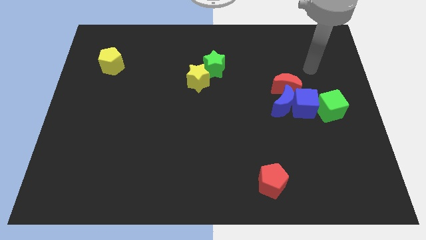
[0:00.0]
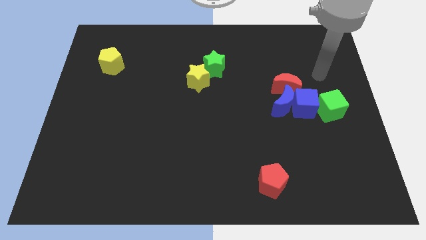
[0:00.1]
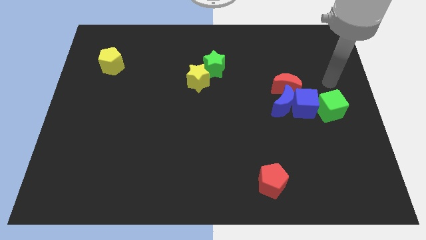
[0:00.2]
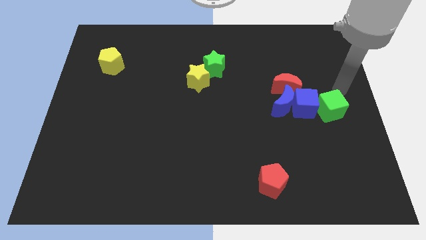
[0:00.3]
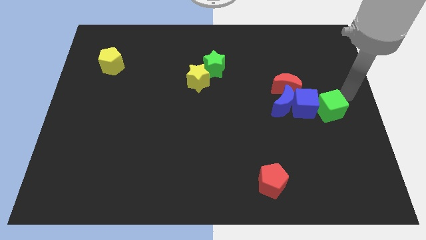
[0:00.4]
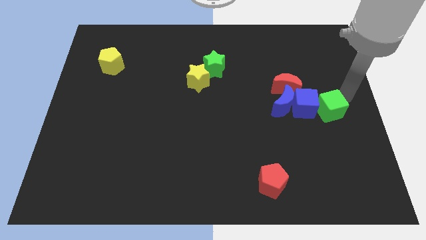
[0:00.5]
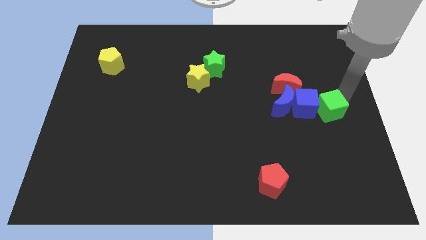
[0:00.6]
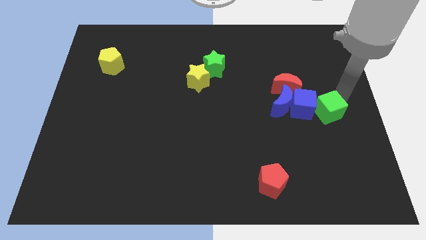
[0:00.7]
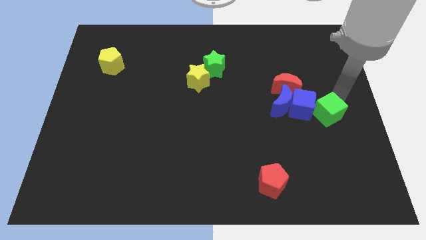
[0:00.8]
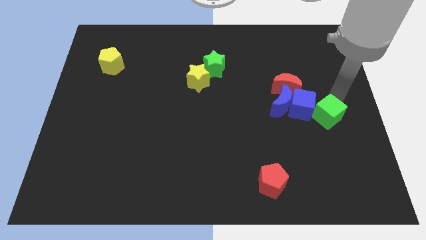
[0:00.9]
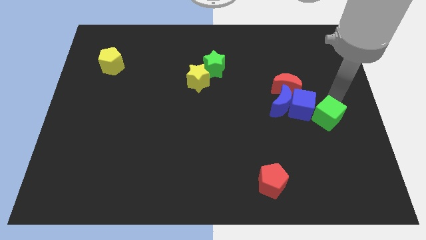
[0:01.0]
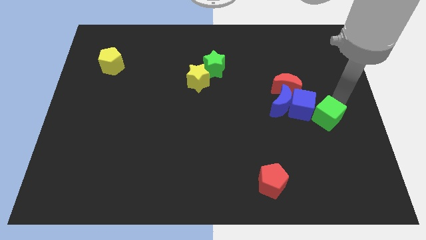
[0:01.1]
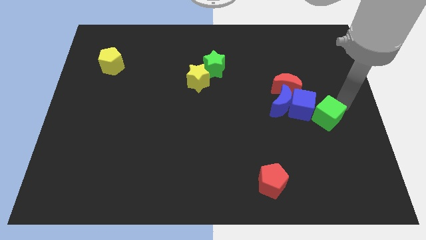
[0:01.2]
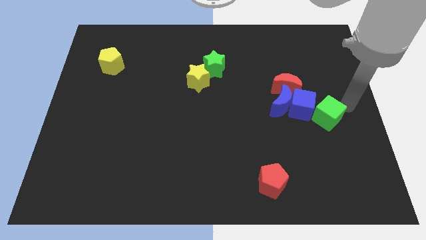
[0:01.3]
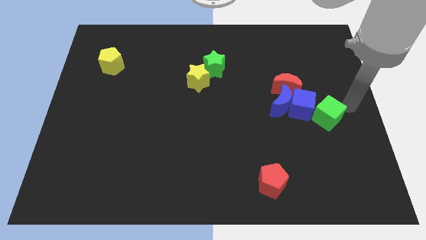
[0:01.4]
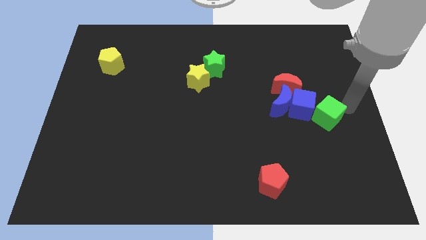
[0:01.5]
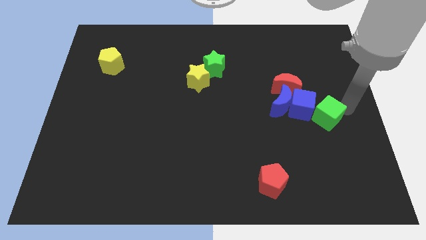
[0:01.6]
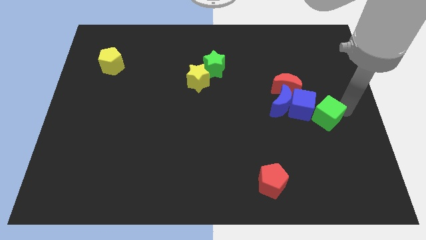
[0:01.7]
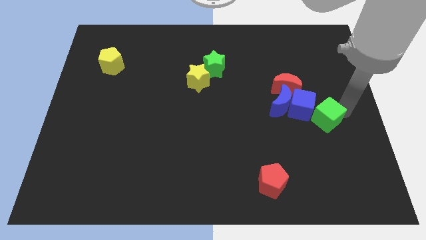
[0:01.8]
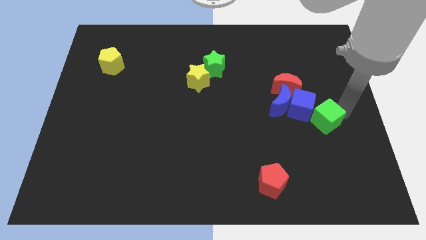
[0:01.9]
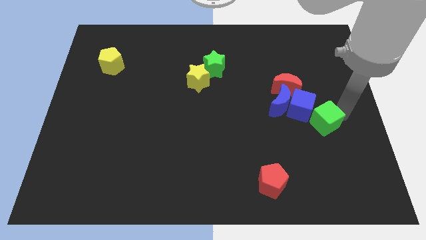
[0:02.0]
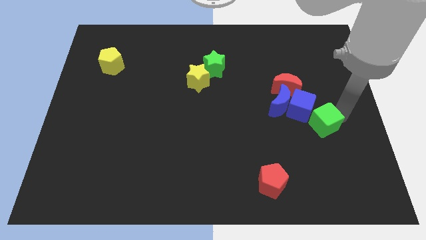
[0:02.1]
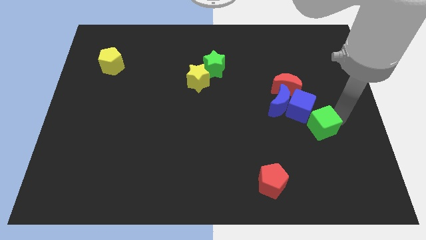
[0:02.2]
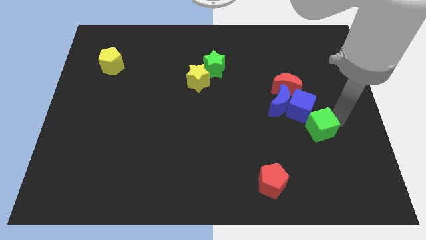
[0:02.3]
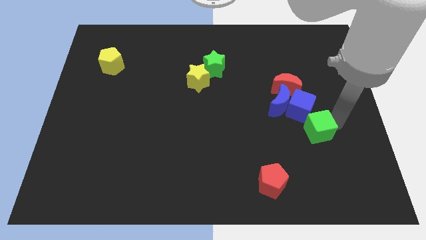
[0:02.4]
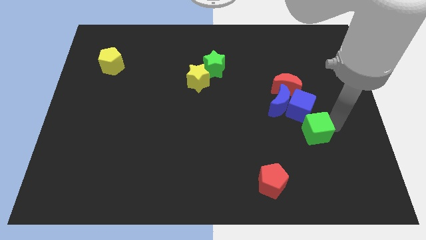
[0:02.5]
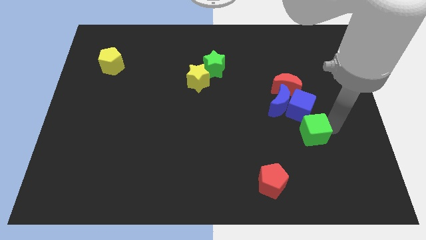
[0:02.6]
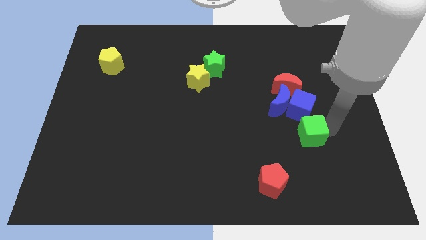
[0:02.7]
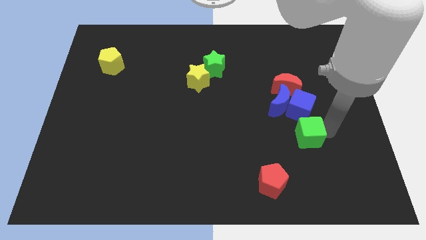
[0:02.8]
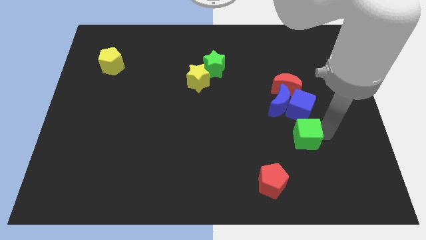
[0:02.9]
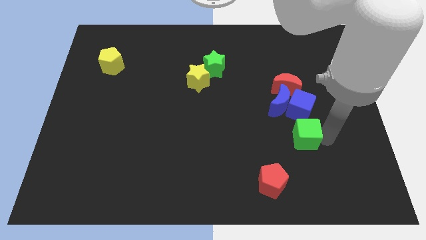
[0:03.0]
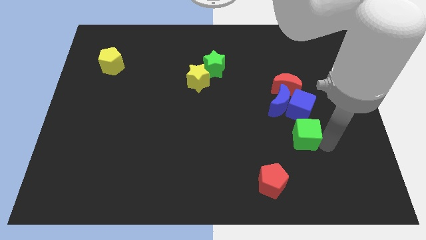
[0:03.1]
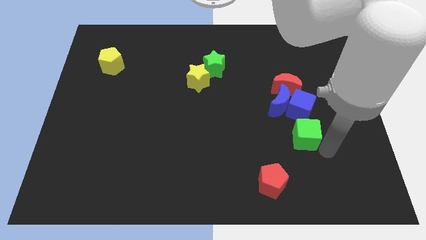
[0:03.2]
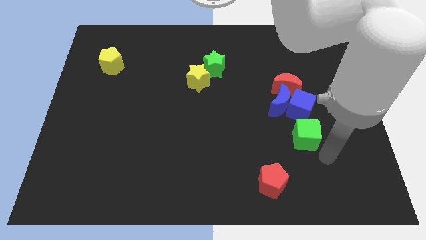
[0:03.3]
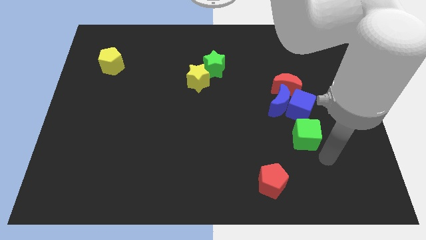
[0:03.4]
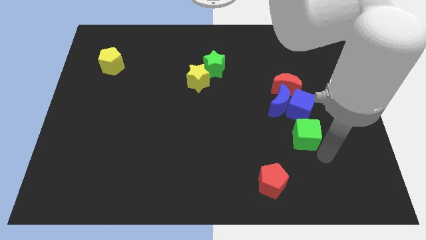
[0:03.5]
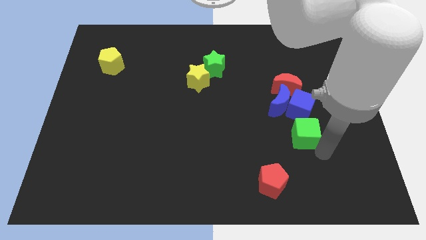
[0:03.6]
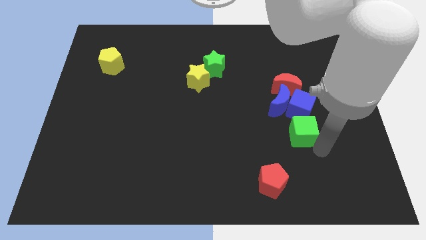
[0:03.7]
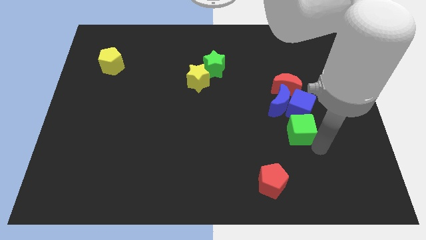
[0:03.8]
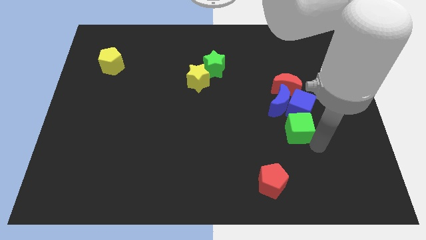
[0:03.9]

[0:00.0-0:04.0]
slightly push the green cube left

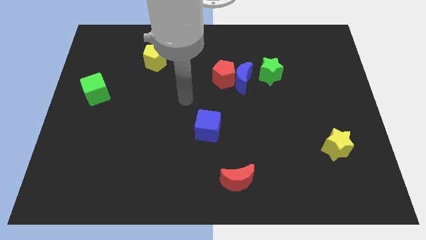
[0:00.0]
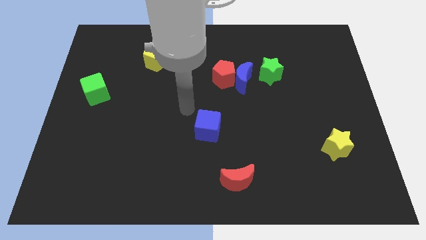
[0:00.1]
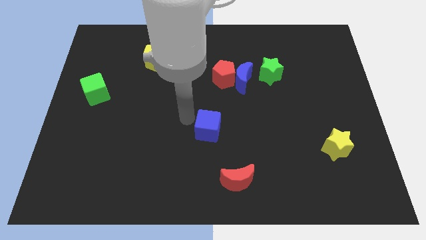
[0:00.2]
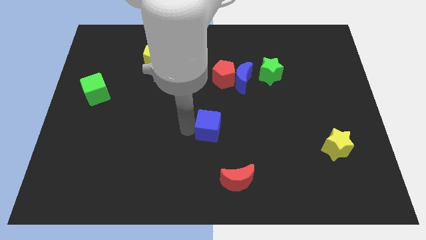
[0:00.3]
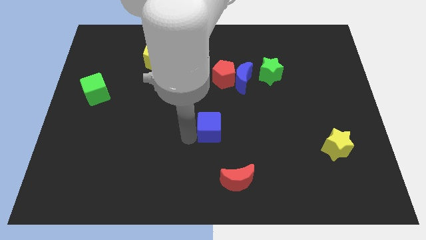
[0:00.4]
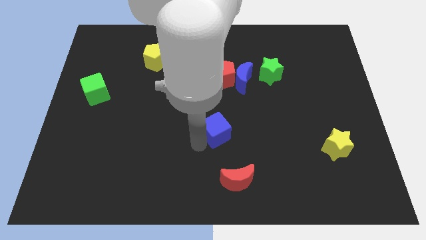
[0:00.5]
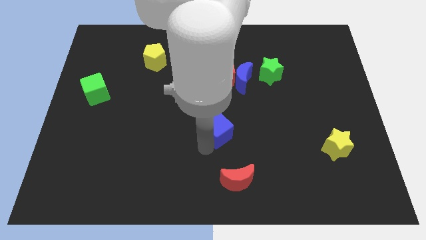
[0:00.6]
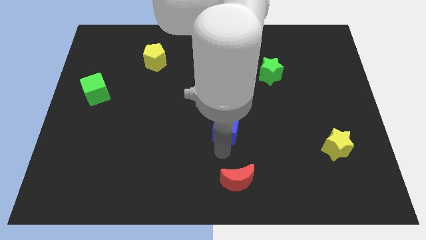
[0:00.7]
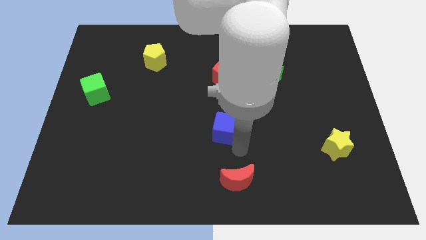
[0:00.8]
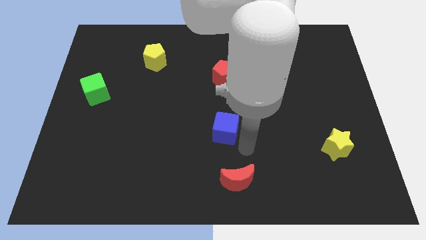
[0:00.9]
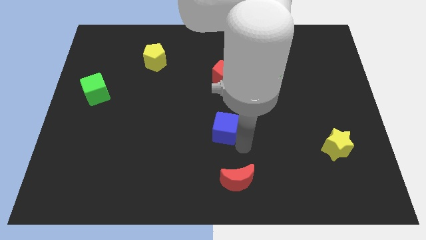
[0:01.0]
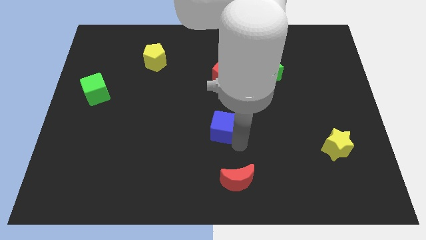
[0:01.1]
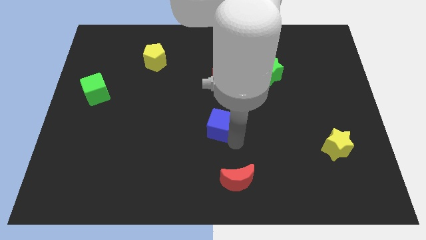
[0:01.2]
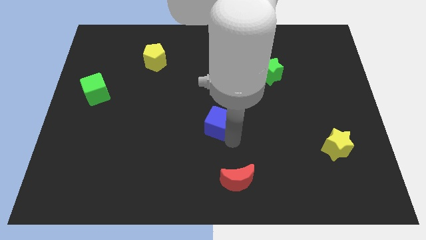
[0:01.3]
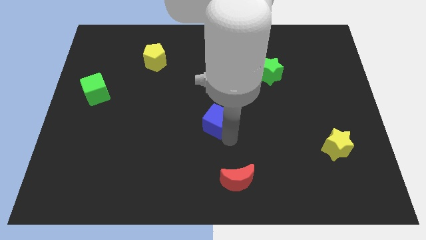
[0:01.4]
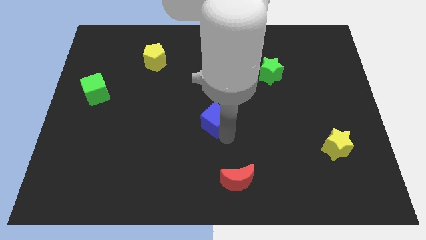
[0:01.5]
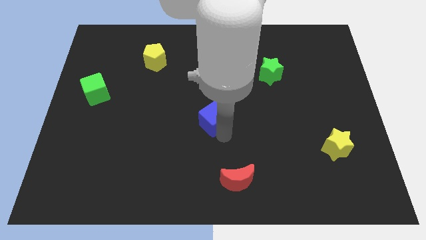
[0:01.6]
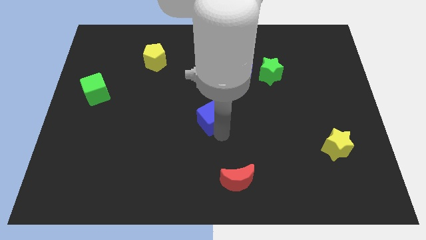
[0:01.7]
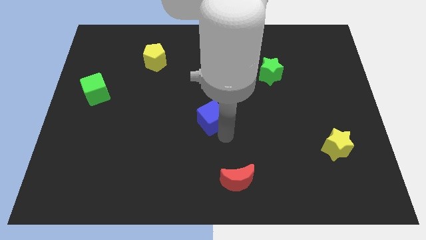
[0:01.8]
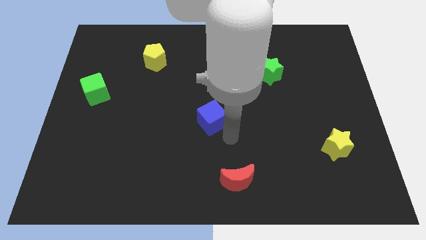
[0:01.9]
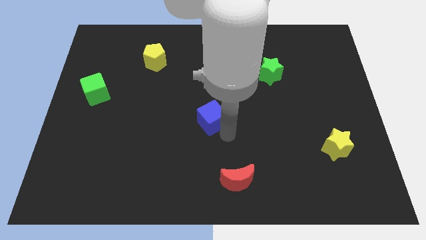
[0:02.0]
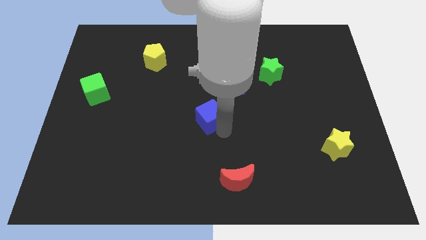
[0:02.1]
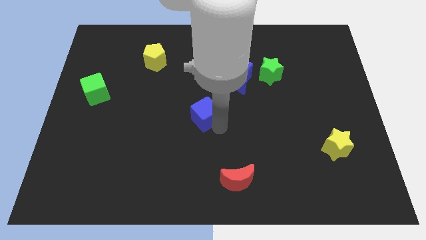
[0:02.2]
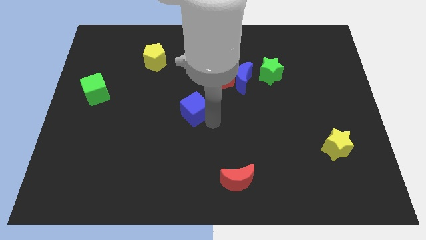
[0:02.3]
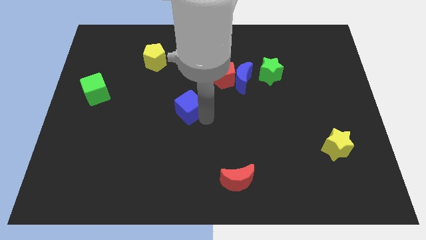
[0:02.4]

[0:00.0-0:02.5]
slide the blue cube somewhat upwards and left diagonally

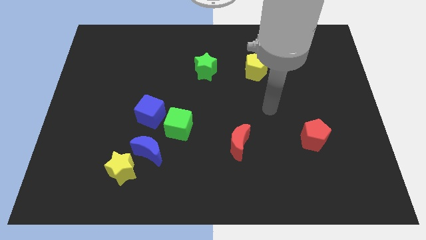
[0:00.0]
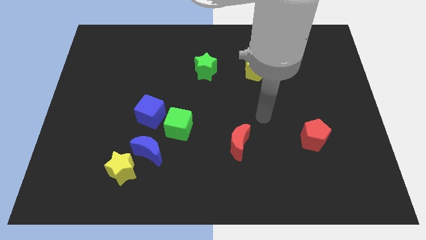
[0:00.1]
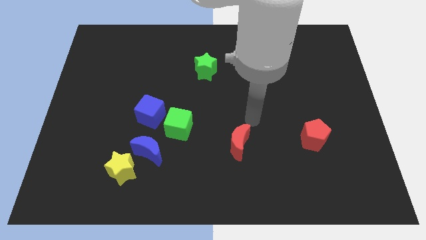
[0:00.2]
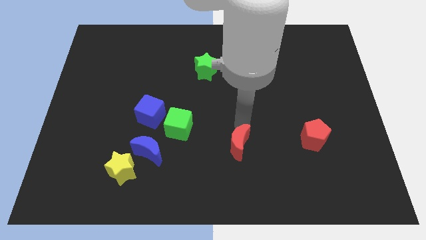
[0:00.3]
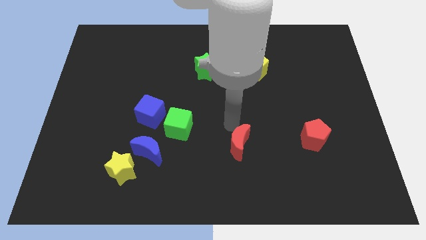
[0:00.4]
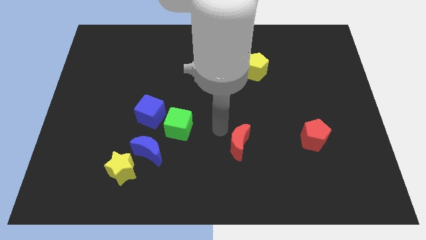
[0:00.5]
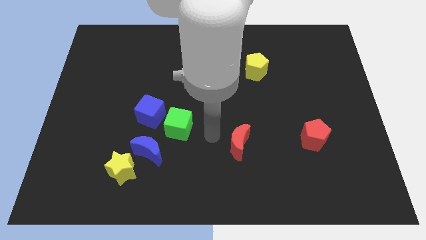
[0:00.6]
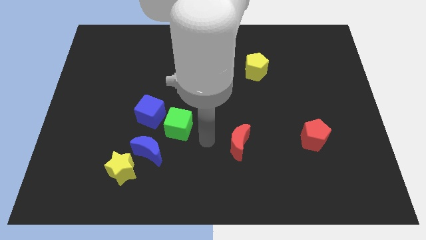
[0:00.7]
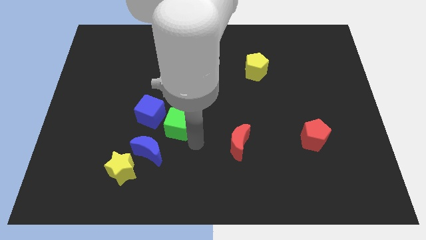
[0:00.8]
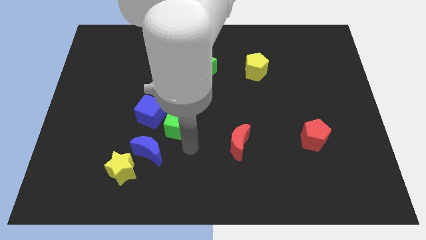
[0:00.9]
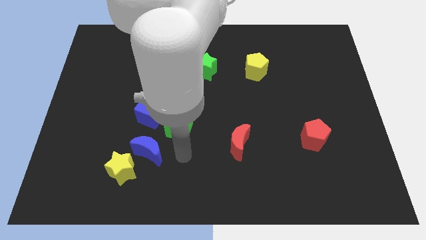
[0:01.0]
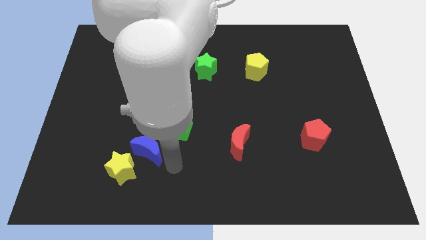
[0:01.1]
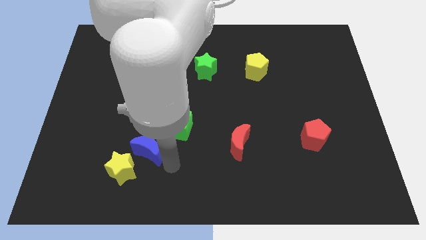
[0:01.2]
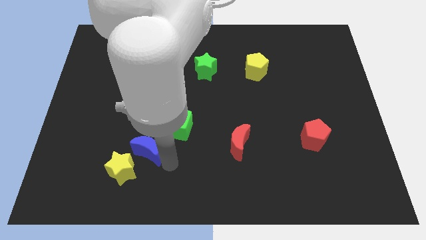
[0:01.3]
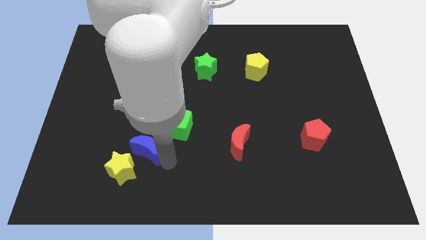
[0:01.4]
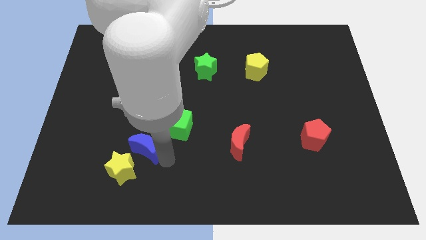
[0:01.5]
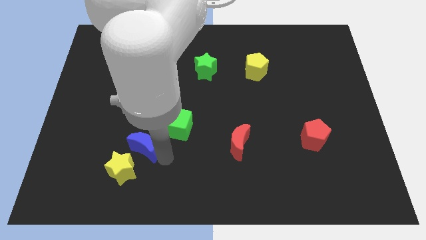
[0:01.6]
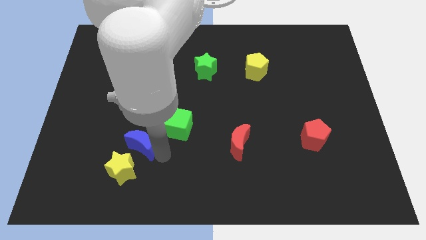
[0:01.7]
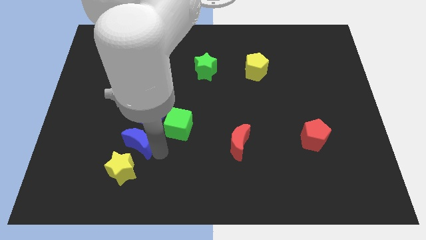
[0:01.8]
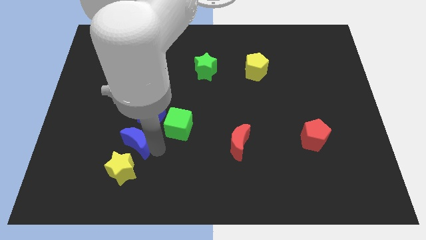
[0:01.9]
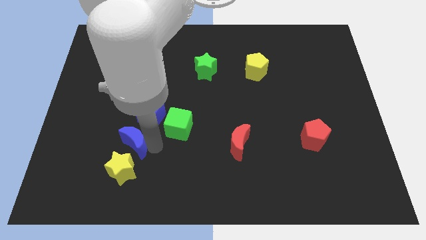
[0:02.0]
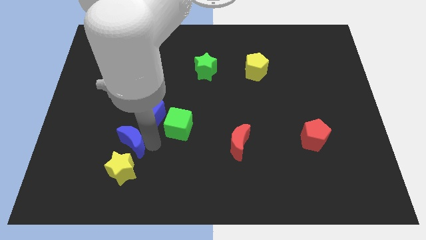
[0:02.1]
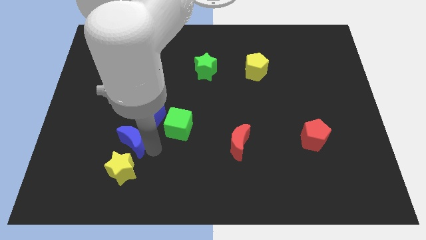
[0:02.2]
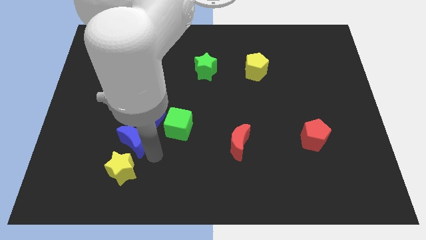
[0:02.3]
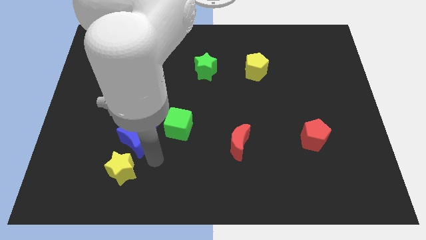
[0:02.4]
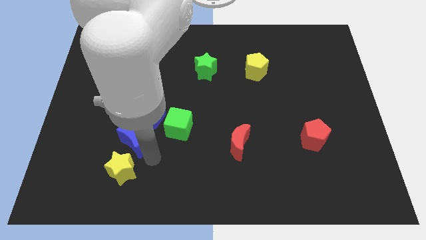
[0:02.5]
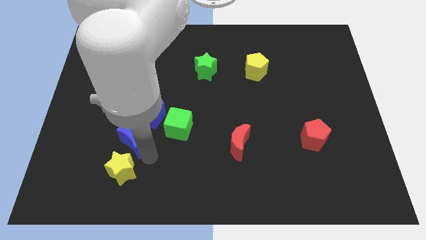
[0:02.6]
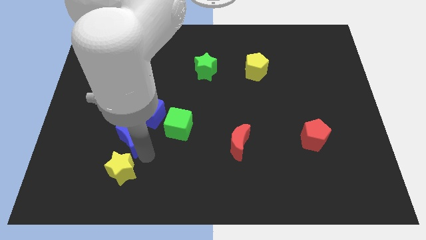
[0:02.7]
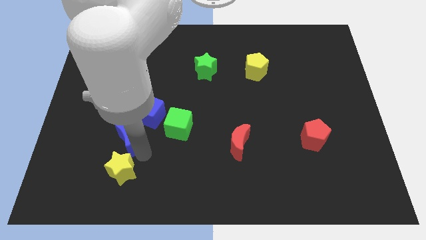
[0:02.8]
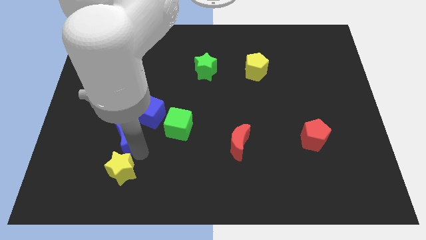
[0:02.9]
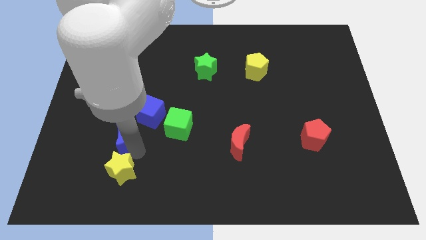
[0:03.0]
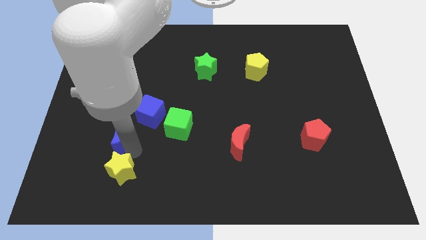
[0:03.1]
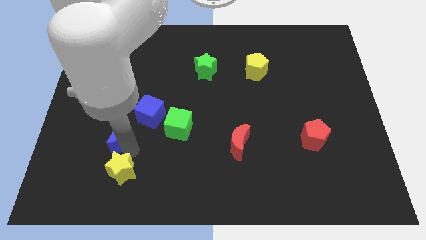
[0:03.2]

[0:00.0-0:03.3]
slightly slide the blue moon diagonally up and to the left
